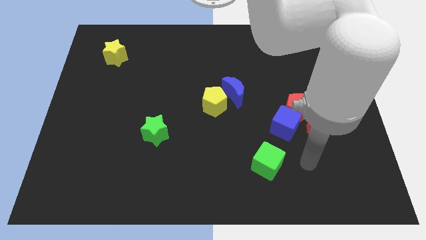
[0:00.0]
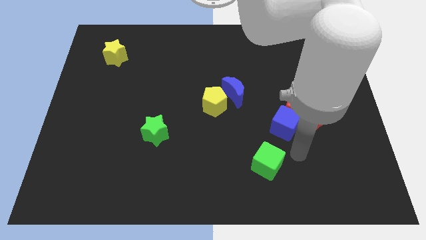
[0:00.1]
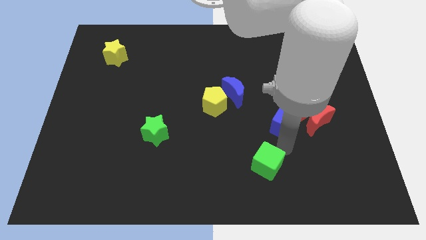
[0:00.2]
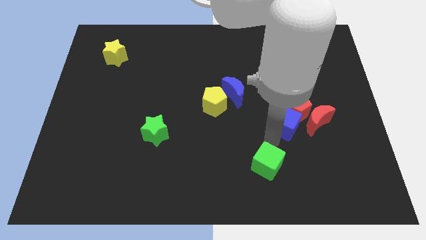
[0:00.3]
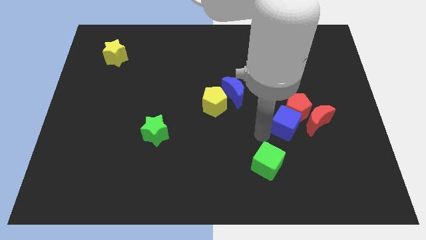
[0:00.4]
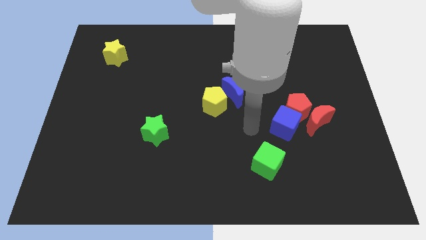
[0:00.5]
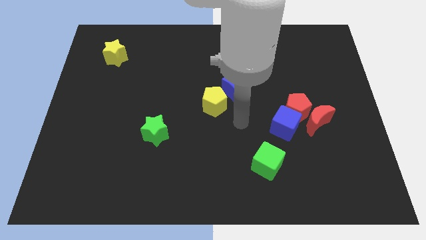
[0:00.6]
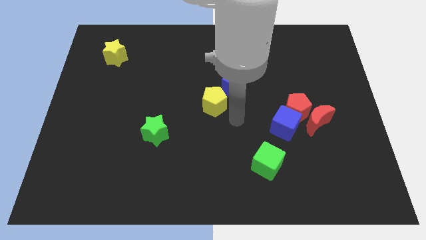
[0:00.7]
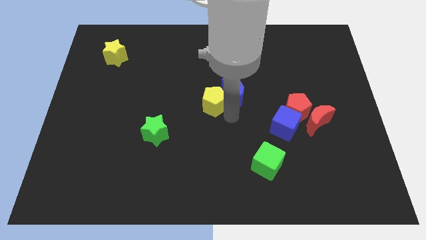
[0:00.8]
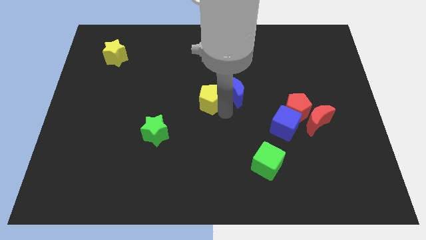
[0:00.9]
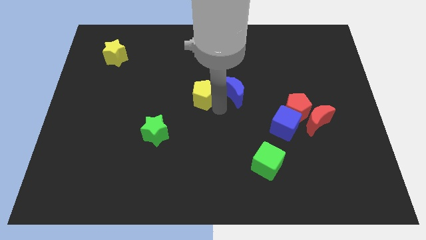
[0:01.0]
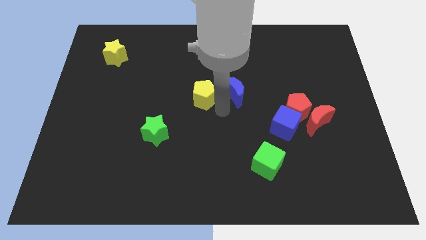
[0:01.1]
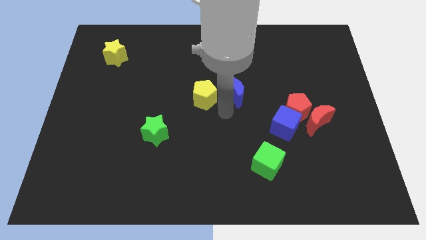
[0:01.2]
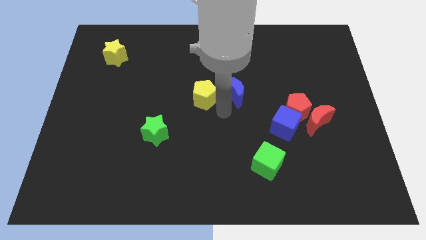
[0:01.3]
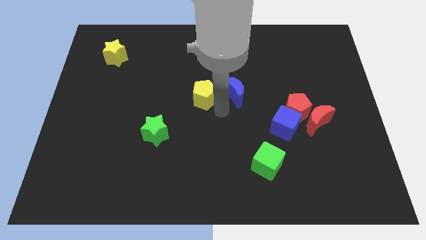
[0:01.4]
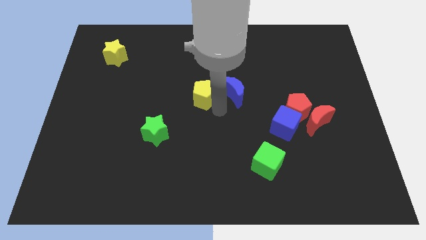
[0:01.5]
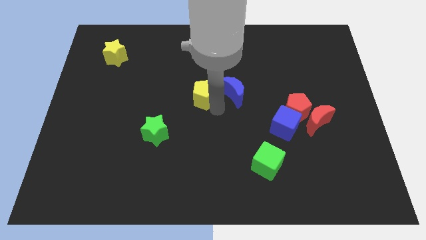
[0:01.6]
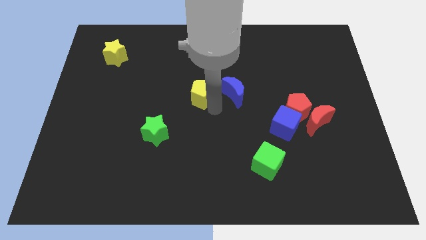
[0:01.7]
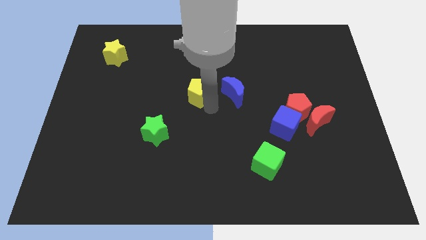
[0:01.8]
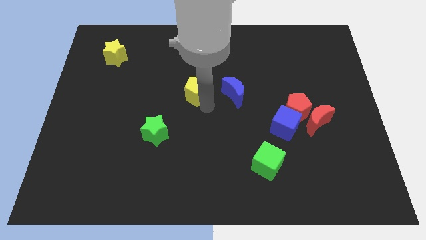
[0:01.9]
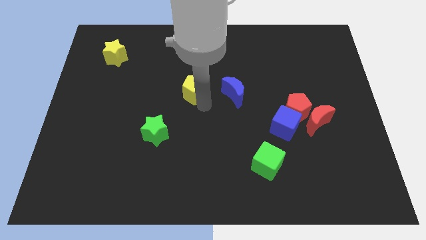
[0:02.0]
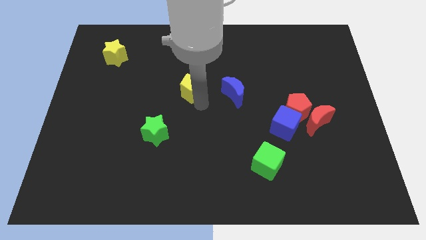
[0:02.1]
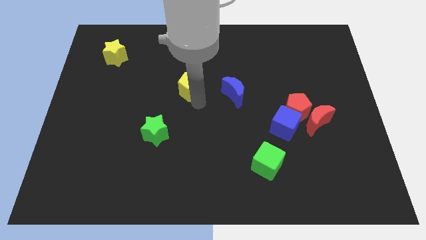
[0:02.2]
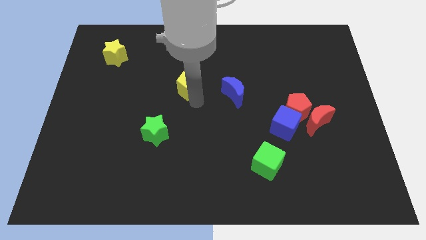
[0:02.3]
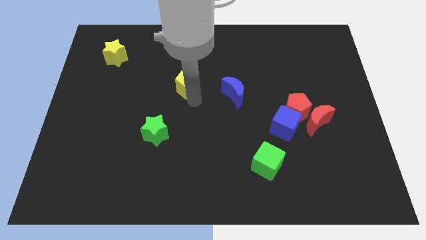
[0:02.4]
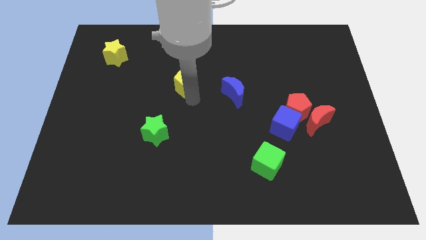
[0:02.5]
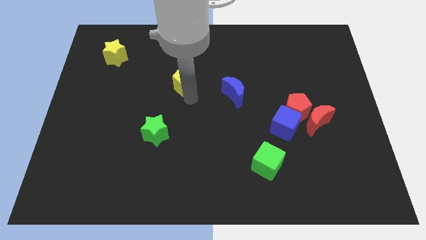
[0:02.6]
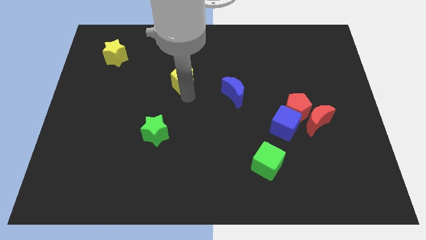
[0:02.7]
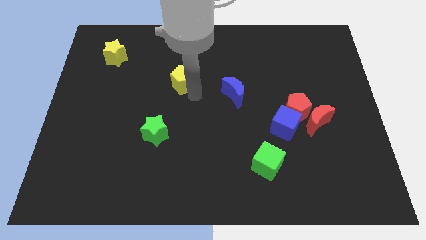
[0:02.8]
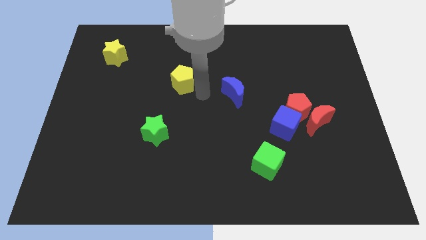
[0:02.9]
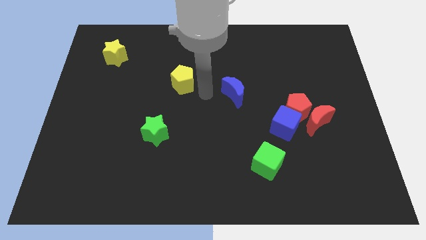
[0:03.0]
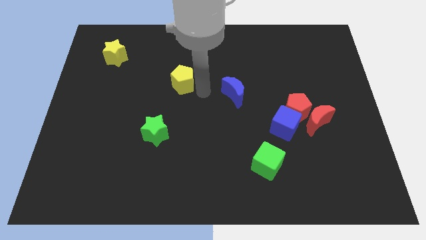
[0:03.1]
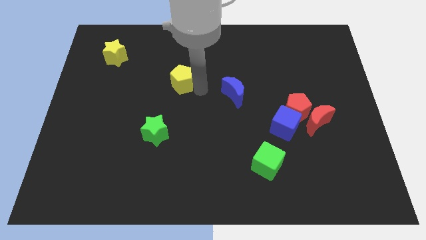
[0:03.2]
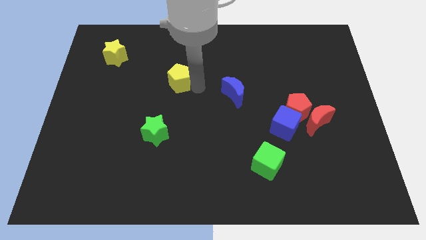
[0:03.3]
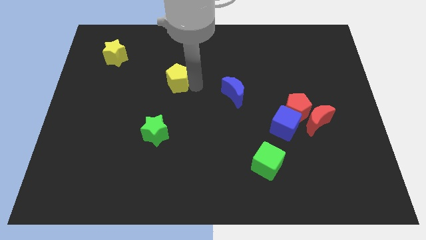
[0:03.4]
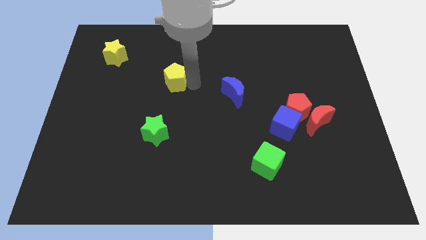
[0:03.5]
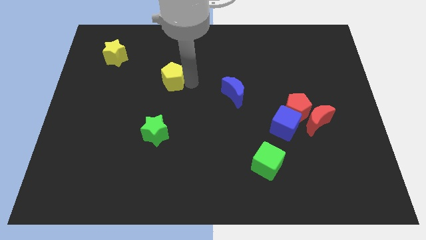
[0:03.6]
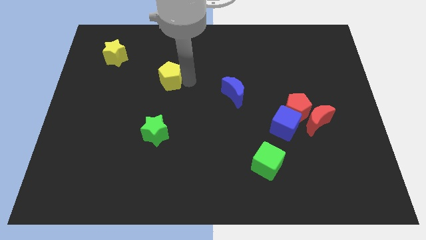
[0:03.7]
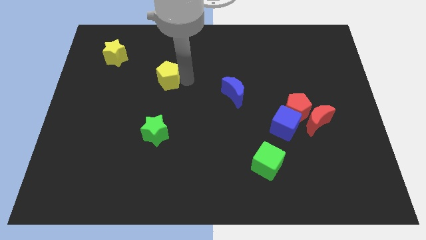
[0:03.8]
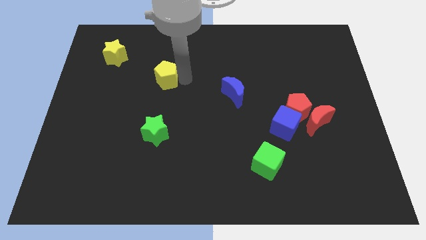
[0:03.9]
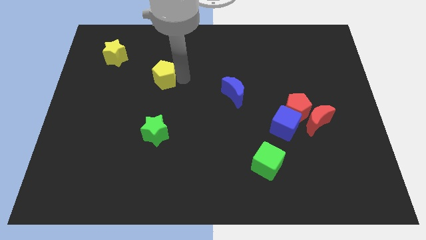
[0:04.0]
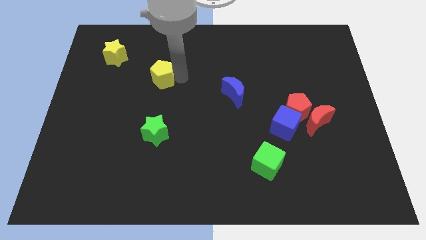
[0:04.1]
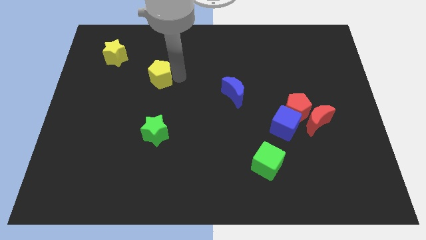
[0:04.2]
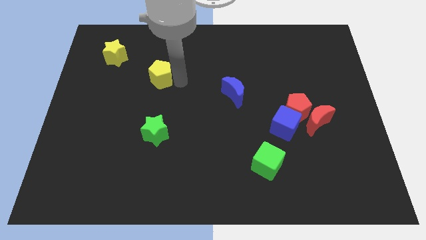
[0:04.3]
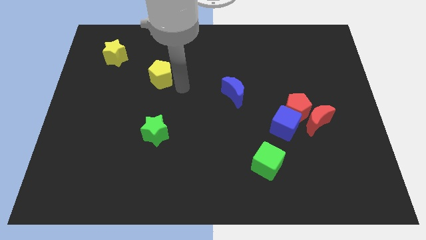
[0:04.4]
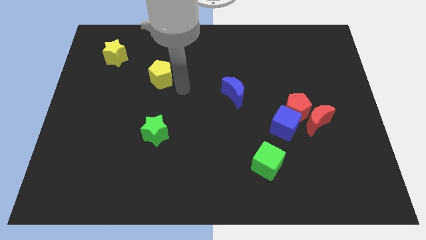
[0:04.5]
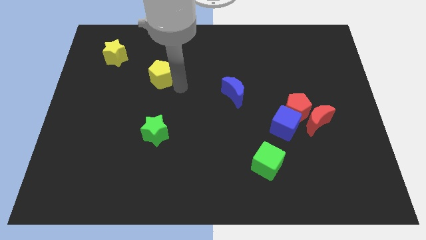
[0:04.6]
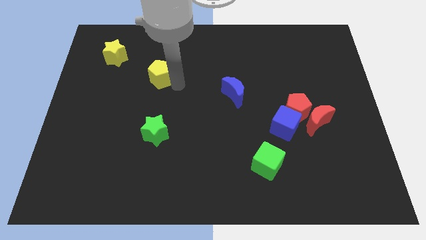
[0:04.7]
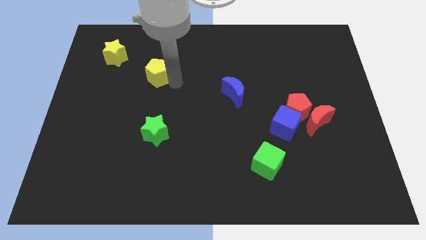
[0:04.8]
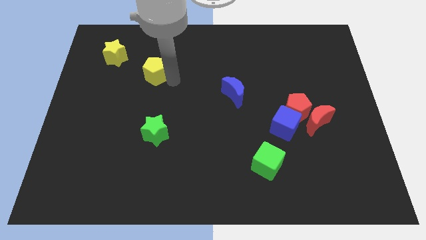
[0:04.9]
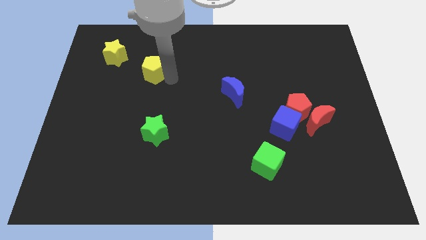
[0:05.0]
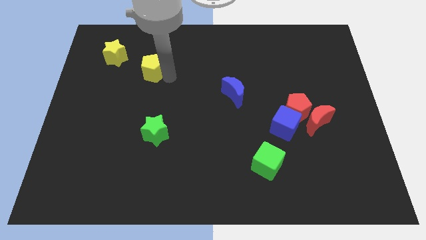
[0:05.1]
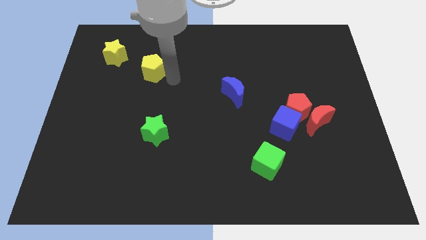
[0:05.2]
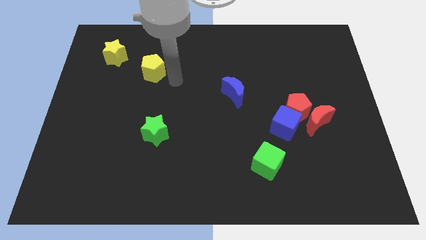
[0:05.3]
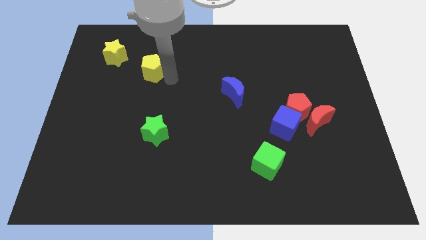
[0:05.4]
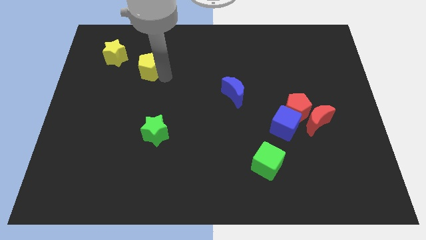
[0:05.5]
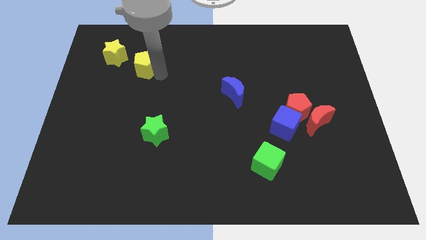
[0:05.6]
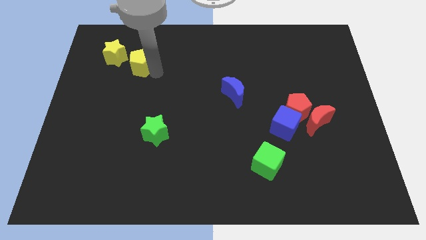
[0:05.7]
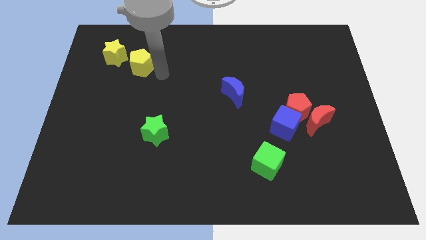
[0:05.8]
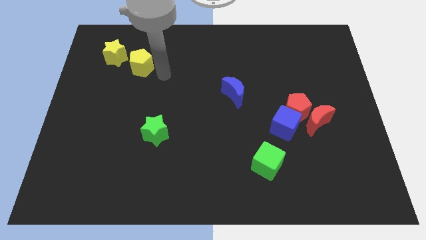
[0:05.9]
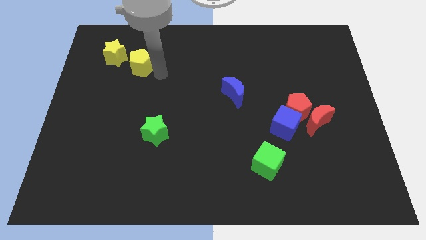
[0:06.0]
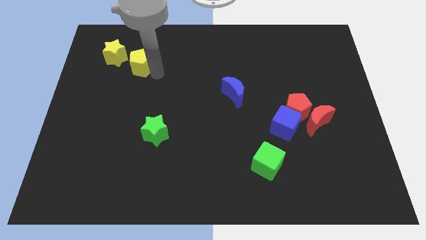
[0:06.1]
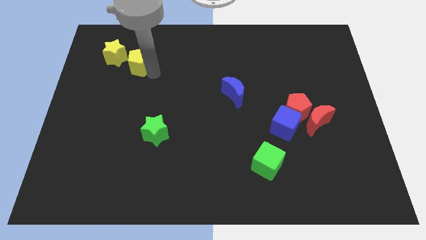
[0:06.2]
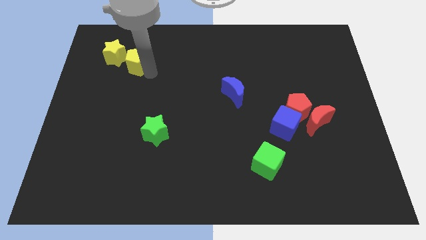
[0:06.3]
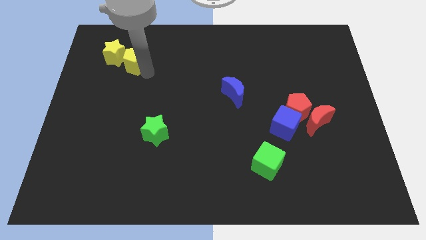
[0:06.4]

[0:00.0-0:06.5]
slide the yellow pentagon to the yellow star
